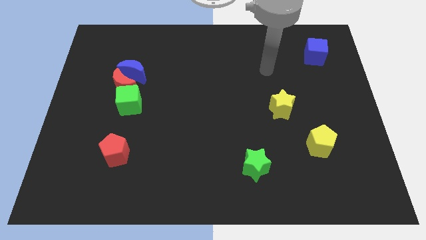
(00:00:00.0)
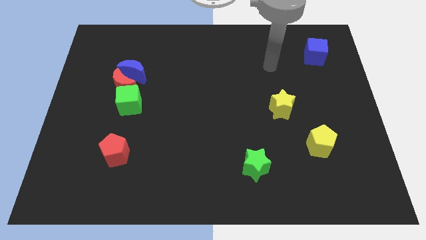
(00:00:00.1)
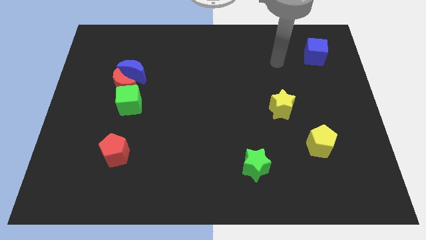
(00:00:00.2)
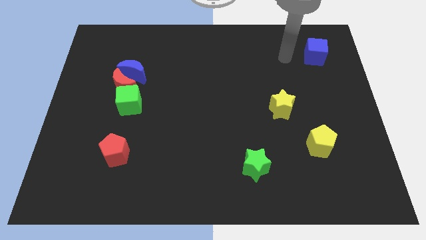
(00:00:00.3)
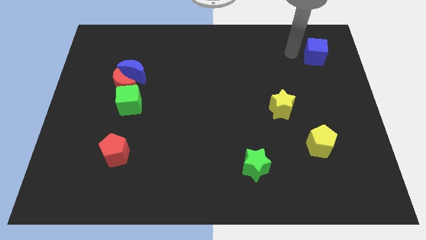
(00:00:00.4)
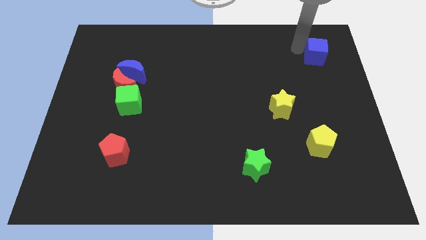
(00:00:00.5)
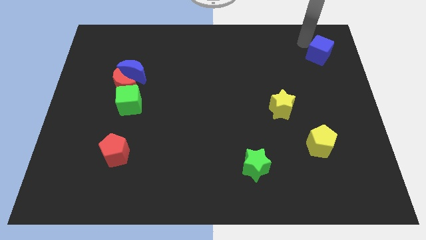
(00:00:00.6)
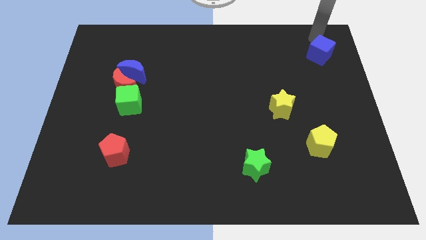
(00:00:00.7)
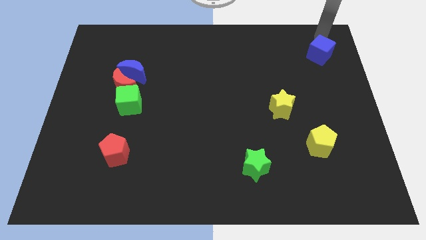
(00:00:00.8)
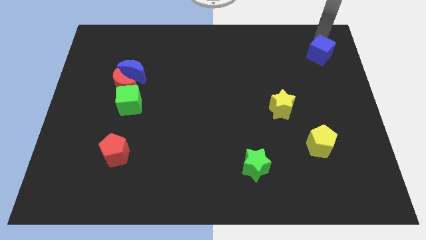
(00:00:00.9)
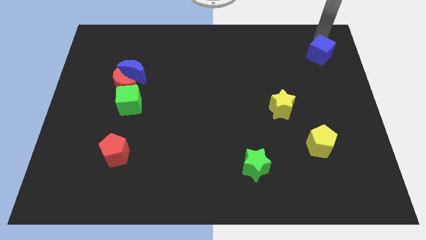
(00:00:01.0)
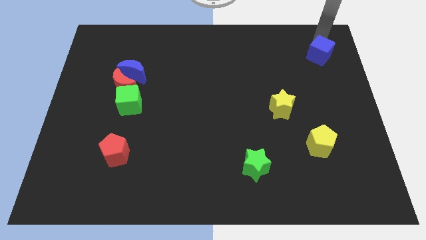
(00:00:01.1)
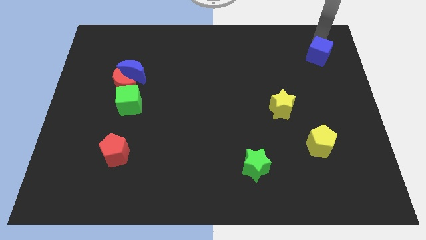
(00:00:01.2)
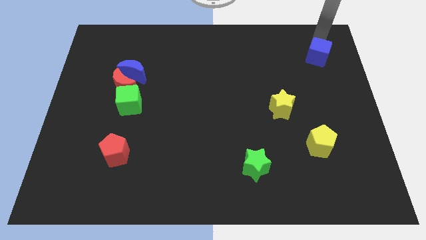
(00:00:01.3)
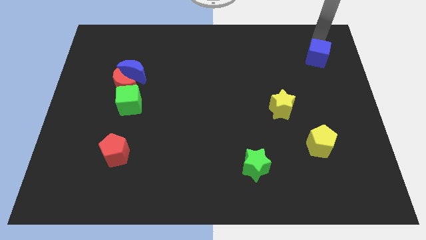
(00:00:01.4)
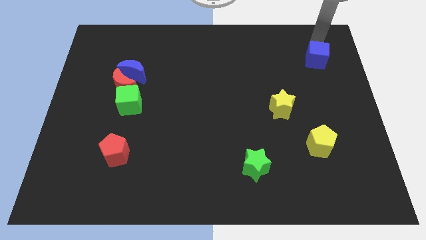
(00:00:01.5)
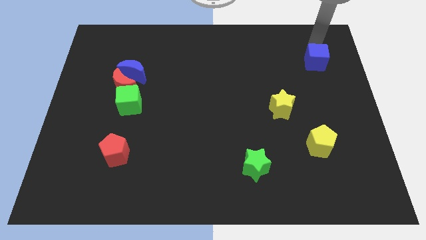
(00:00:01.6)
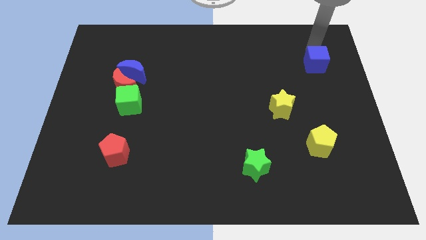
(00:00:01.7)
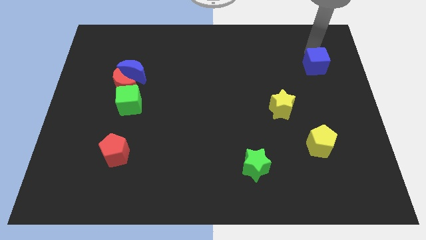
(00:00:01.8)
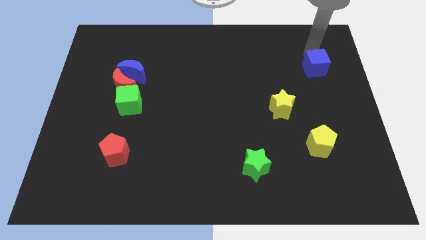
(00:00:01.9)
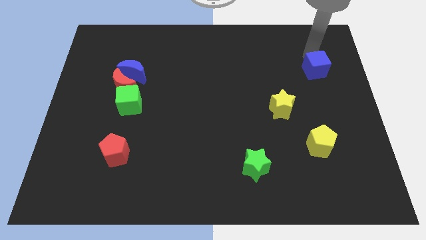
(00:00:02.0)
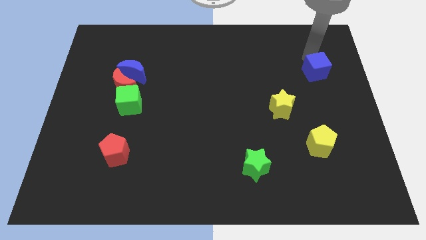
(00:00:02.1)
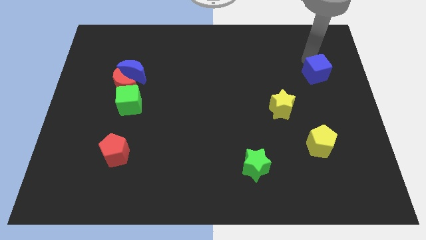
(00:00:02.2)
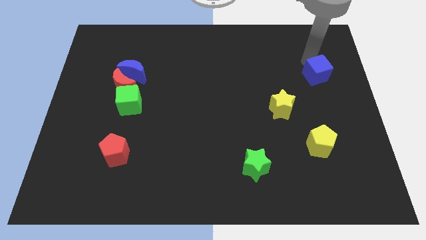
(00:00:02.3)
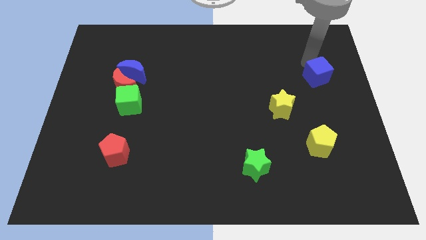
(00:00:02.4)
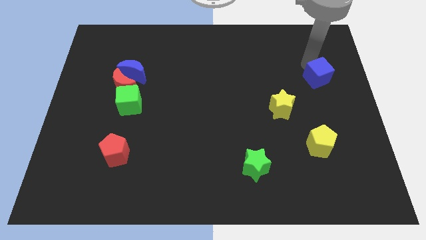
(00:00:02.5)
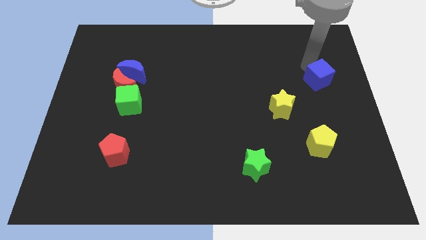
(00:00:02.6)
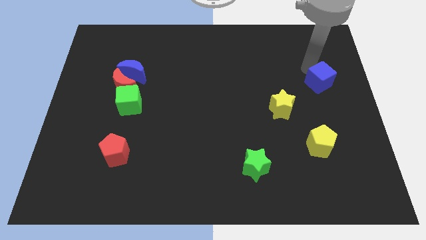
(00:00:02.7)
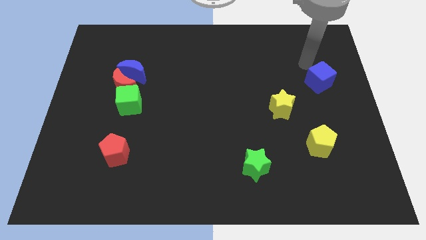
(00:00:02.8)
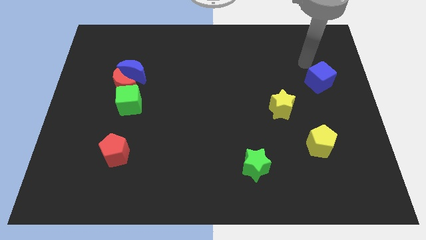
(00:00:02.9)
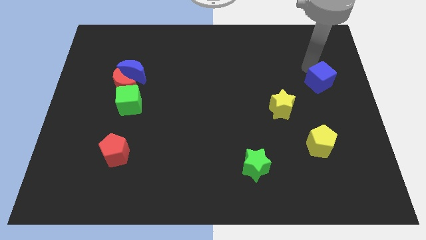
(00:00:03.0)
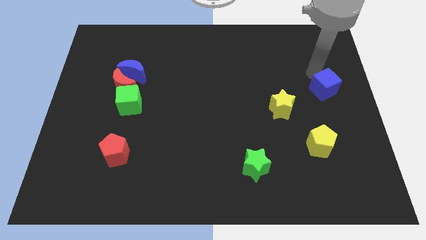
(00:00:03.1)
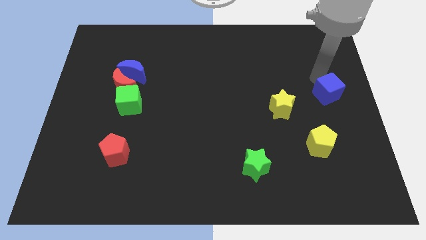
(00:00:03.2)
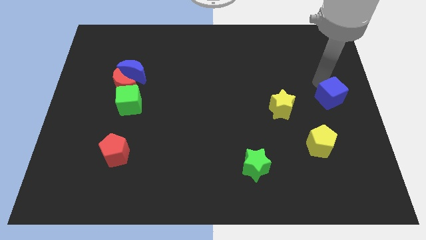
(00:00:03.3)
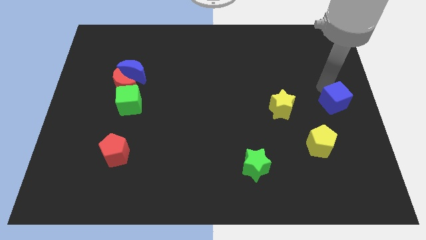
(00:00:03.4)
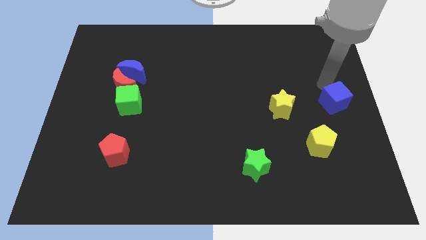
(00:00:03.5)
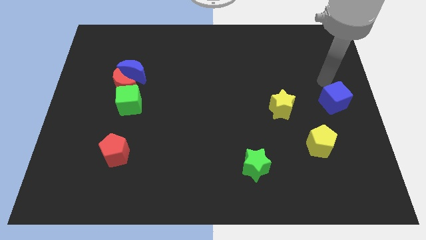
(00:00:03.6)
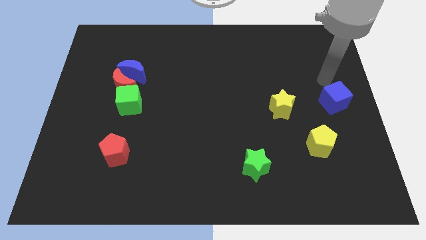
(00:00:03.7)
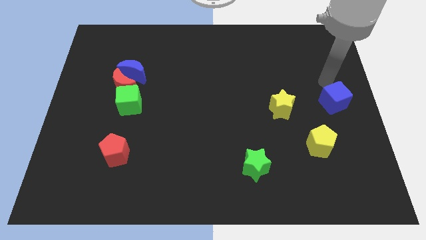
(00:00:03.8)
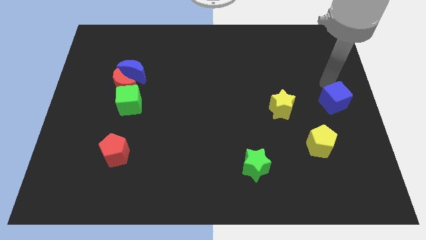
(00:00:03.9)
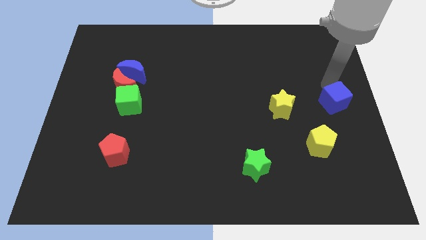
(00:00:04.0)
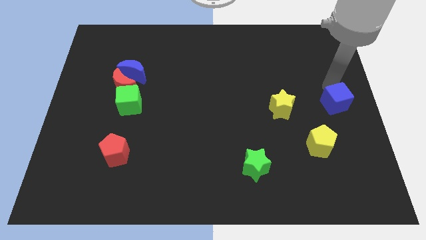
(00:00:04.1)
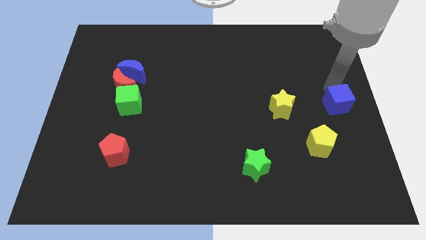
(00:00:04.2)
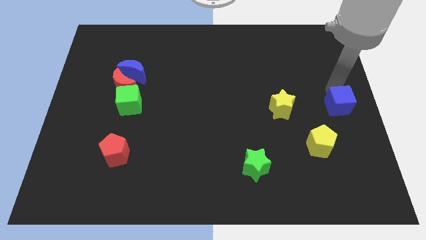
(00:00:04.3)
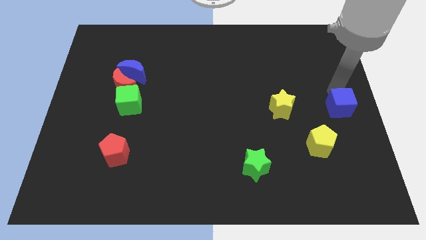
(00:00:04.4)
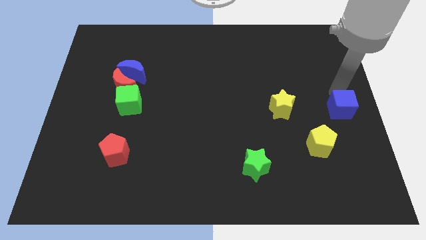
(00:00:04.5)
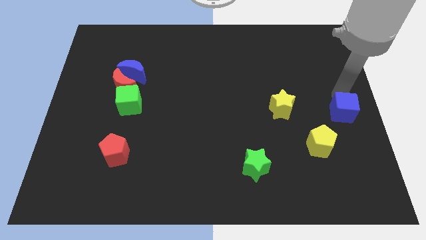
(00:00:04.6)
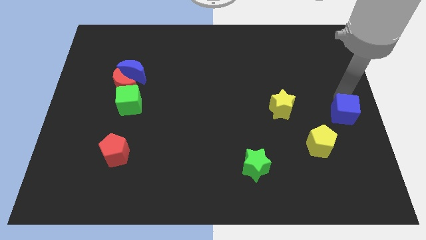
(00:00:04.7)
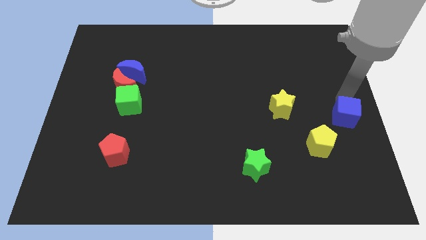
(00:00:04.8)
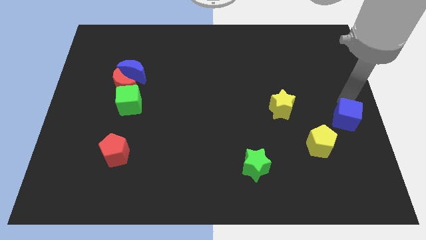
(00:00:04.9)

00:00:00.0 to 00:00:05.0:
push the blue cube downwards

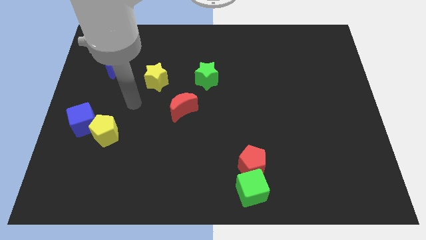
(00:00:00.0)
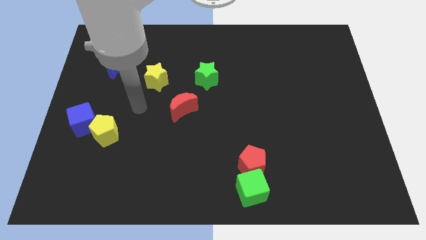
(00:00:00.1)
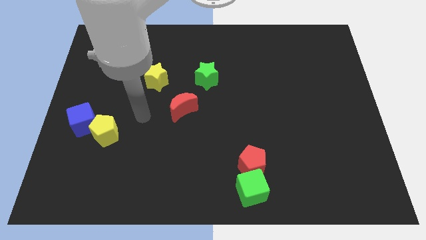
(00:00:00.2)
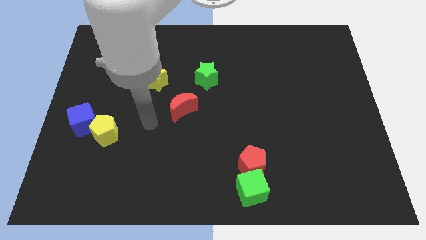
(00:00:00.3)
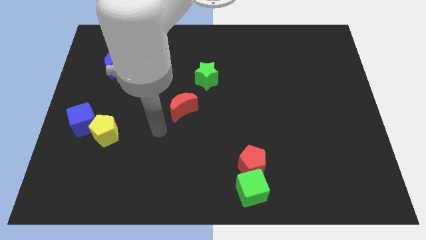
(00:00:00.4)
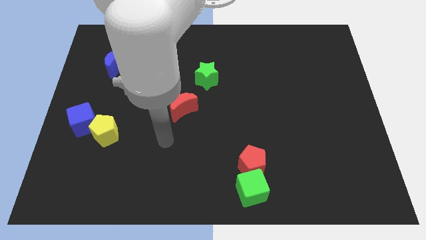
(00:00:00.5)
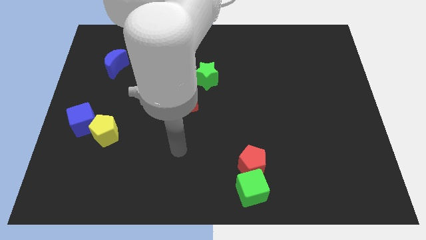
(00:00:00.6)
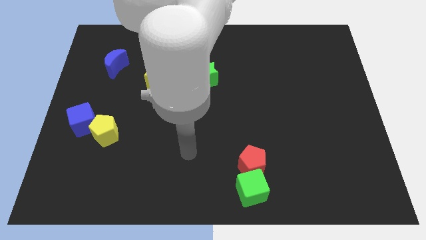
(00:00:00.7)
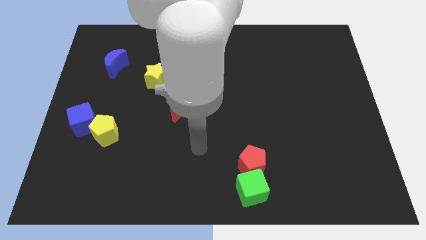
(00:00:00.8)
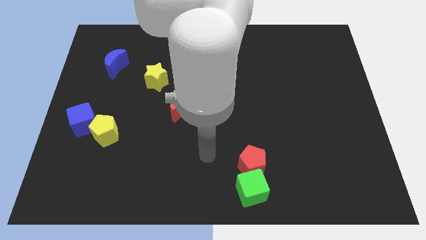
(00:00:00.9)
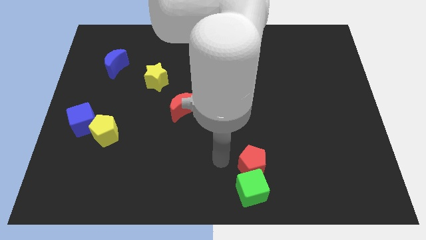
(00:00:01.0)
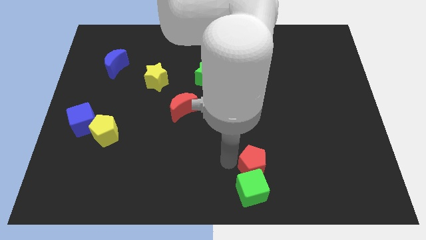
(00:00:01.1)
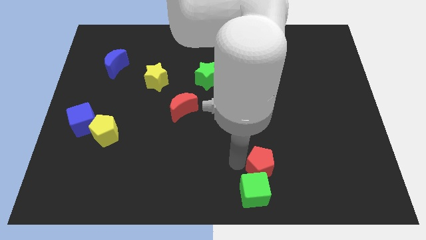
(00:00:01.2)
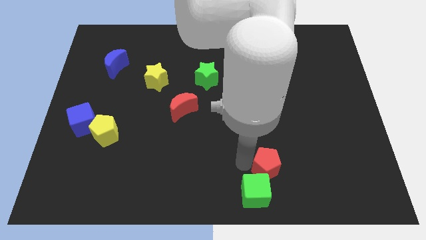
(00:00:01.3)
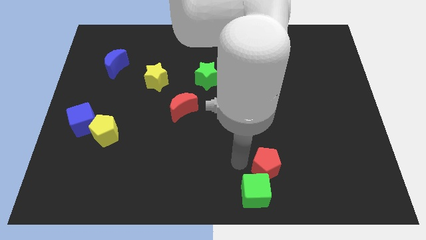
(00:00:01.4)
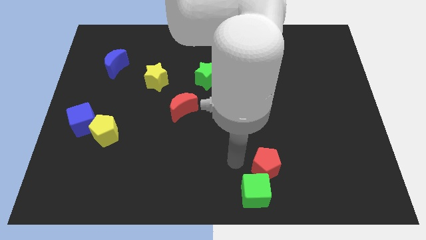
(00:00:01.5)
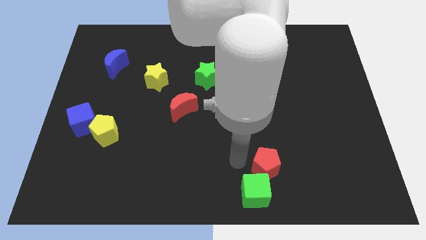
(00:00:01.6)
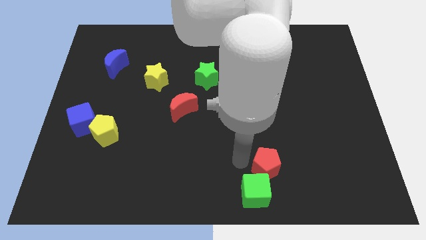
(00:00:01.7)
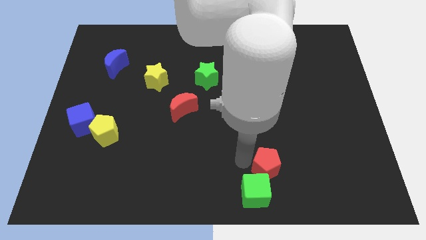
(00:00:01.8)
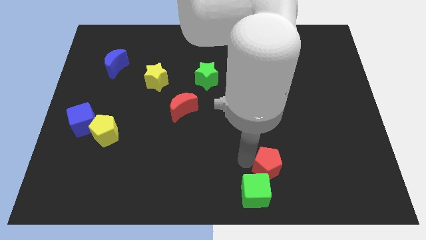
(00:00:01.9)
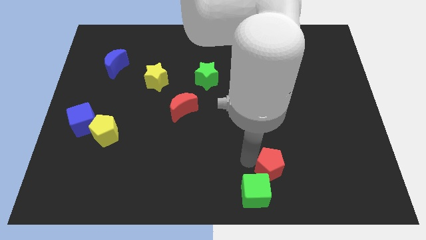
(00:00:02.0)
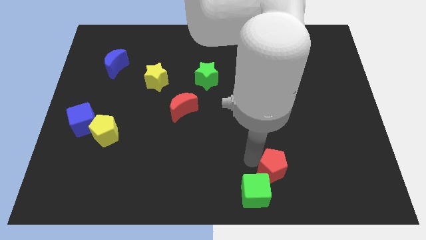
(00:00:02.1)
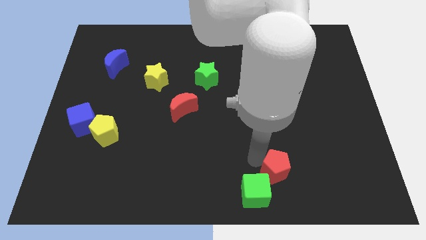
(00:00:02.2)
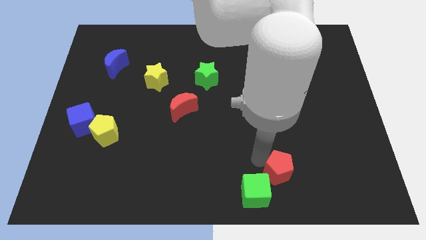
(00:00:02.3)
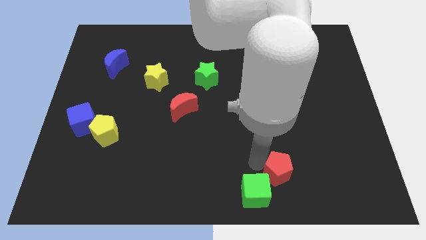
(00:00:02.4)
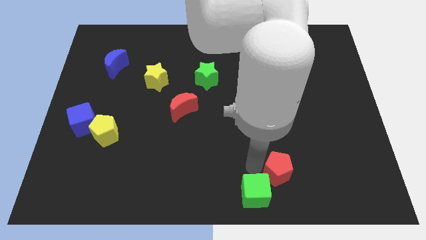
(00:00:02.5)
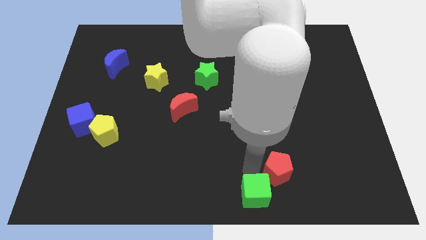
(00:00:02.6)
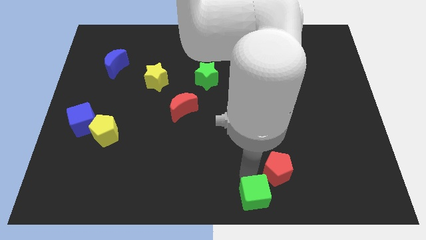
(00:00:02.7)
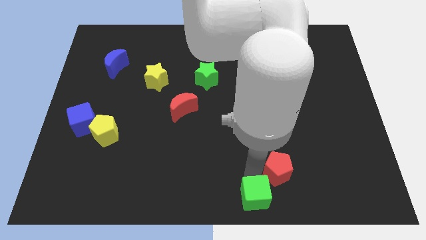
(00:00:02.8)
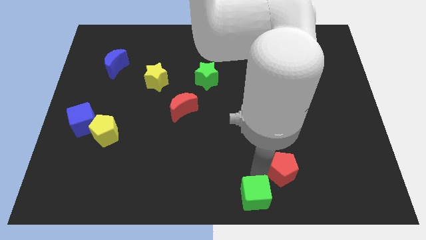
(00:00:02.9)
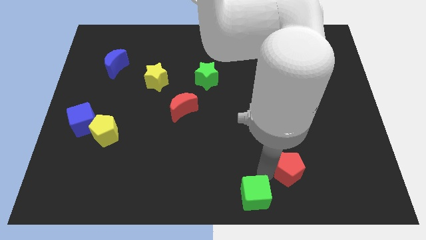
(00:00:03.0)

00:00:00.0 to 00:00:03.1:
slightly move the red pentagon right
